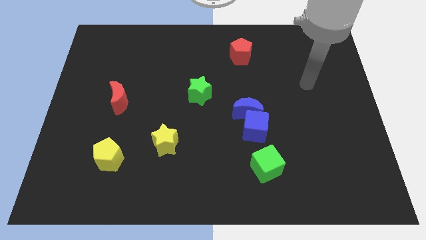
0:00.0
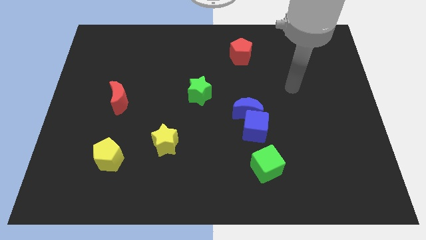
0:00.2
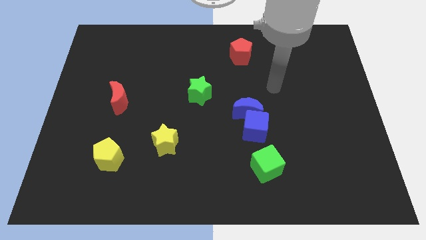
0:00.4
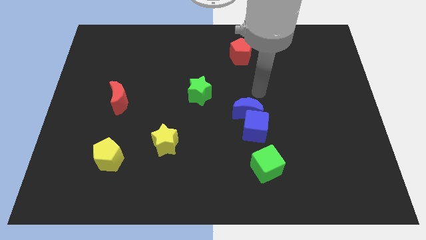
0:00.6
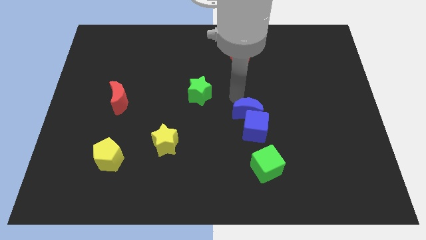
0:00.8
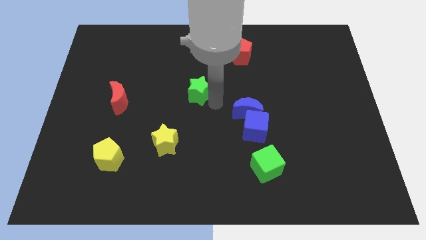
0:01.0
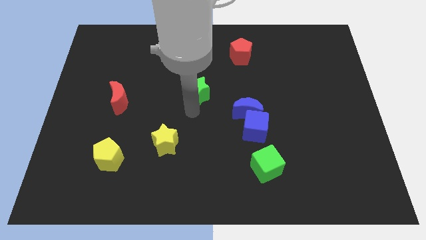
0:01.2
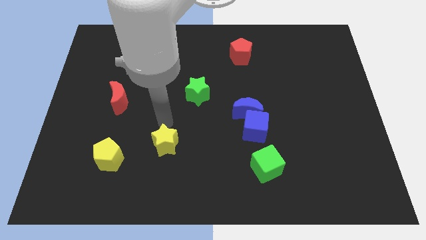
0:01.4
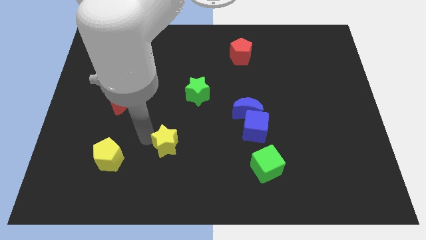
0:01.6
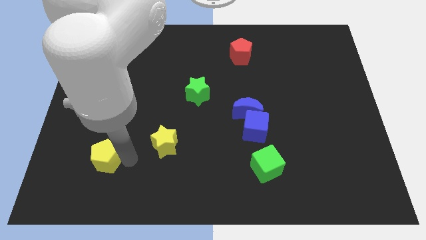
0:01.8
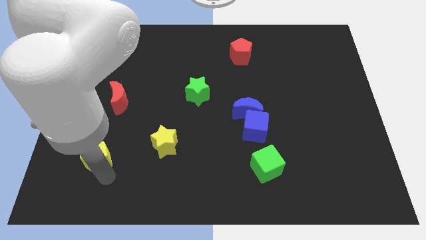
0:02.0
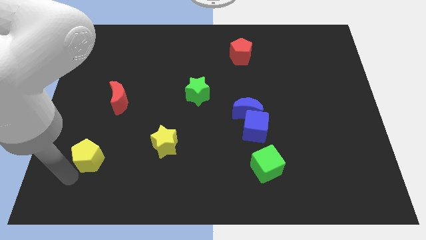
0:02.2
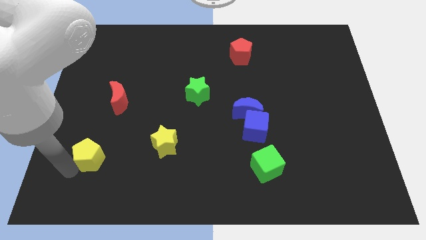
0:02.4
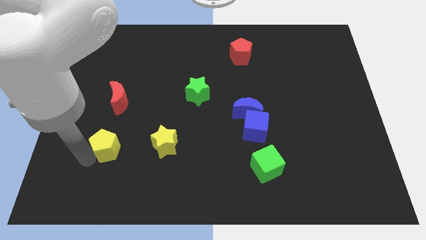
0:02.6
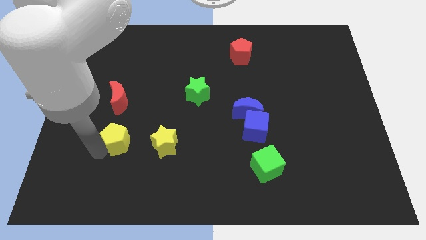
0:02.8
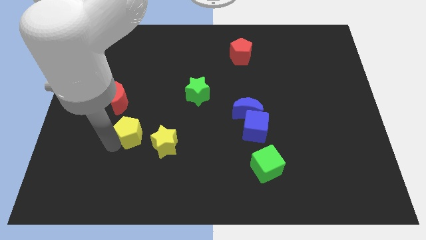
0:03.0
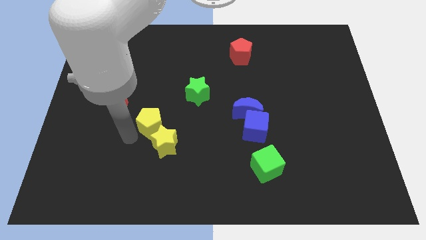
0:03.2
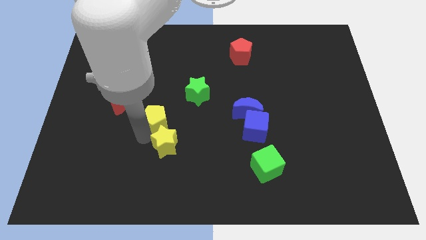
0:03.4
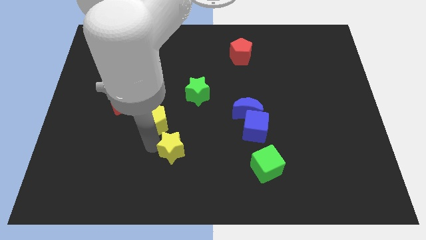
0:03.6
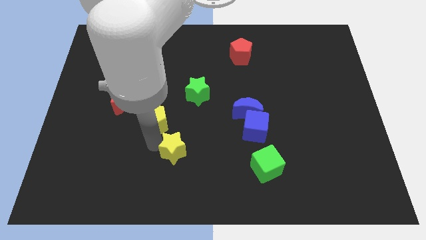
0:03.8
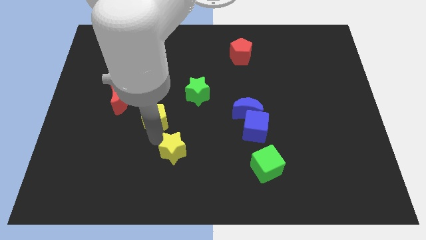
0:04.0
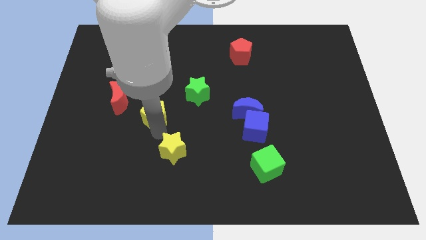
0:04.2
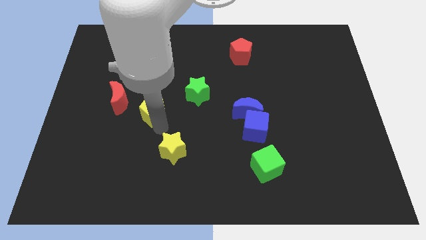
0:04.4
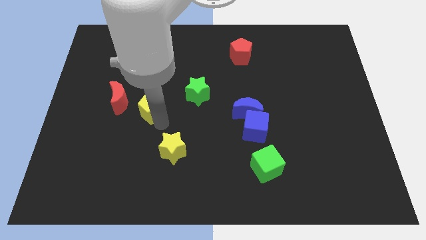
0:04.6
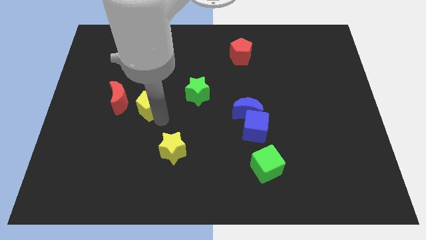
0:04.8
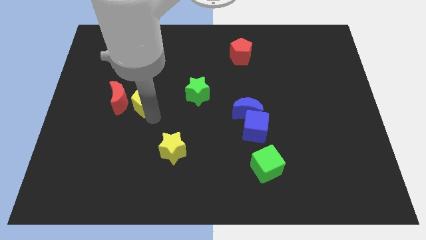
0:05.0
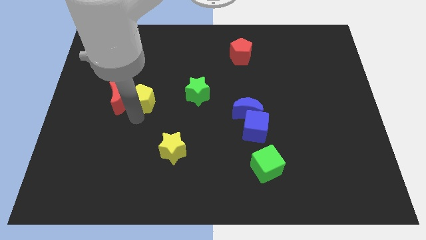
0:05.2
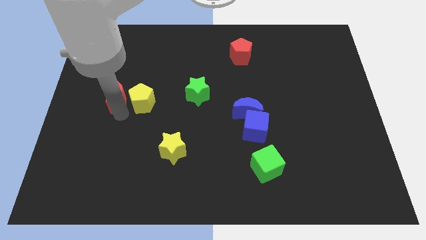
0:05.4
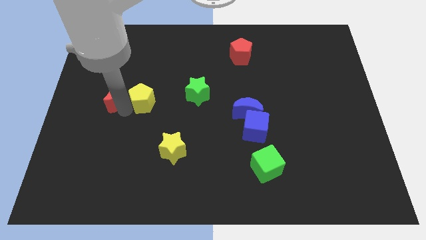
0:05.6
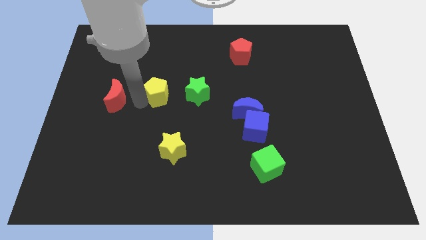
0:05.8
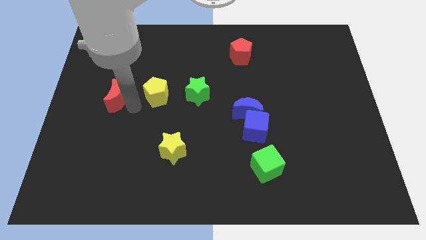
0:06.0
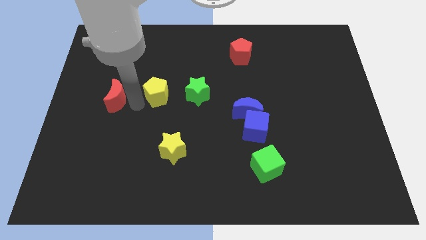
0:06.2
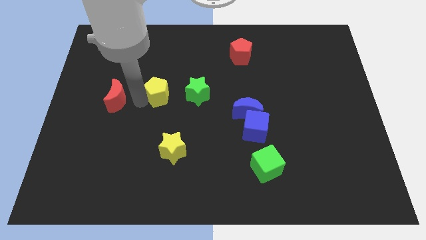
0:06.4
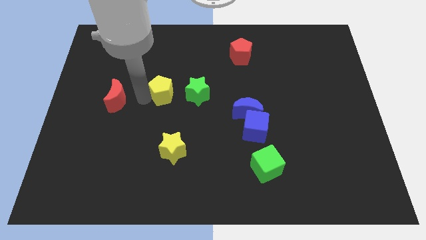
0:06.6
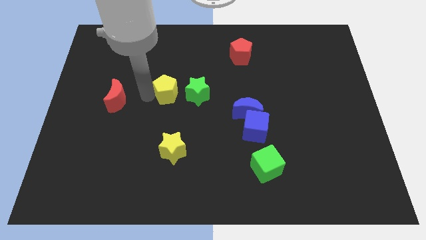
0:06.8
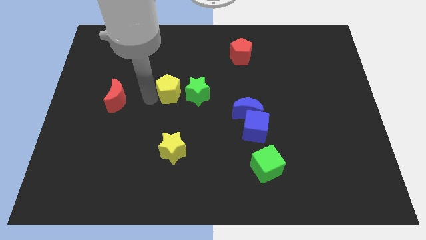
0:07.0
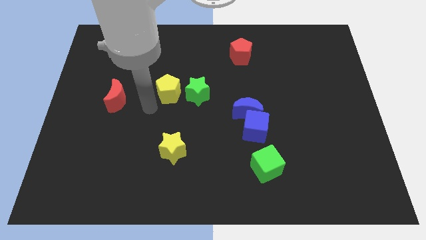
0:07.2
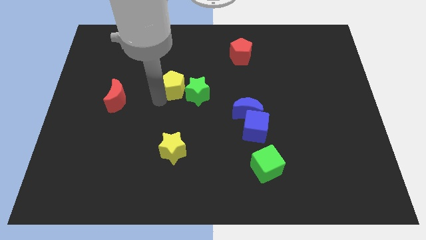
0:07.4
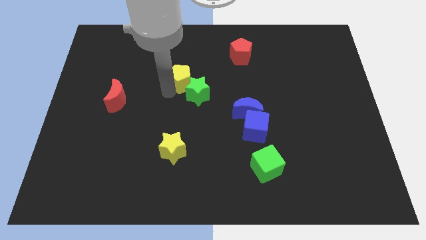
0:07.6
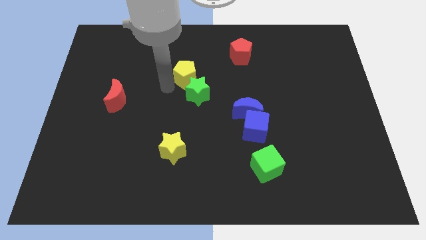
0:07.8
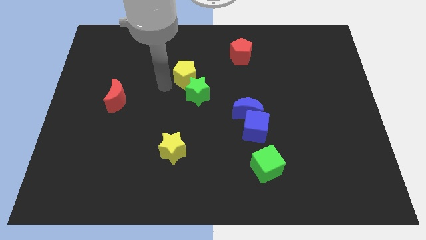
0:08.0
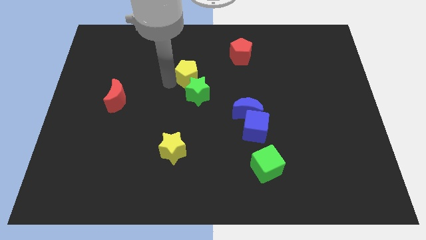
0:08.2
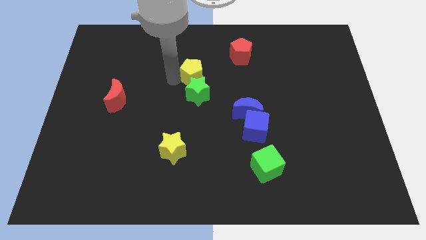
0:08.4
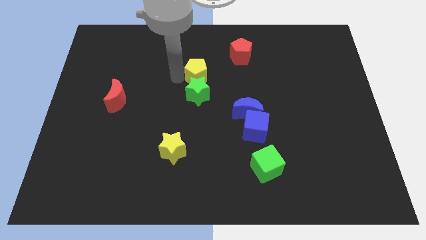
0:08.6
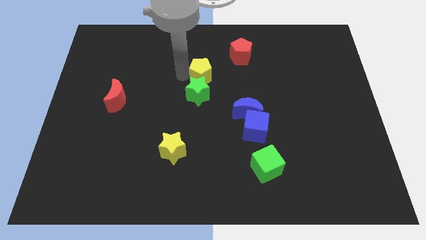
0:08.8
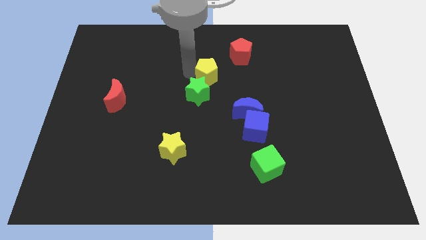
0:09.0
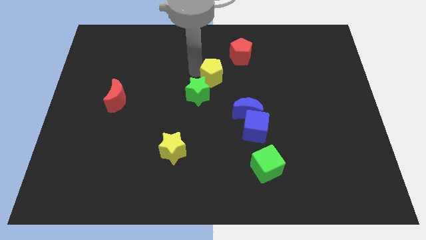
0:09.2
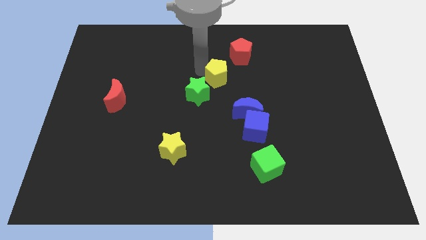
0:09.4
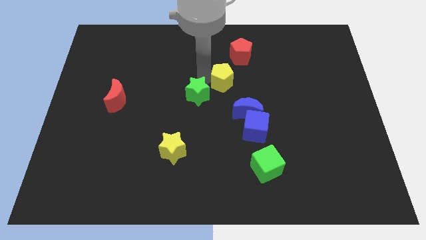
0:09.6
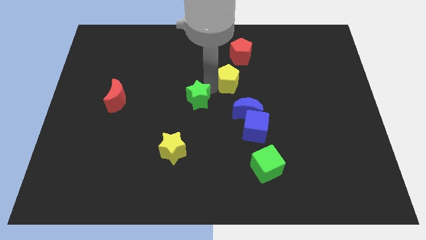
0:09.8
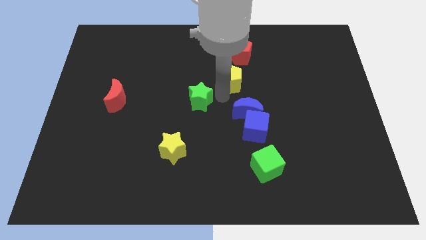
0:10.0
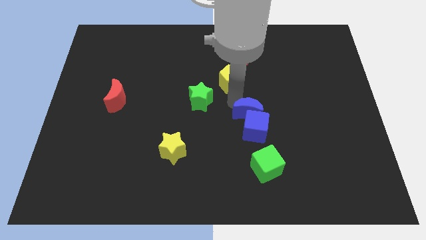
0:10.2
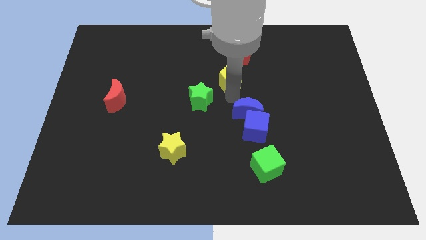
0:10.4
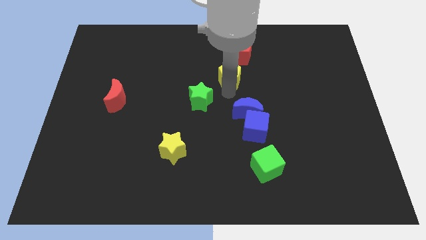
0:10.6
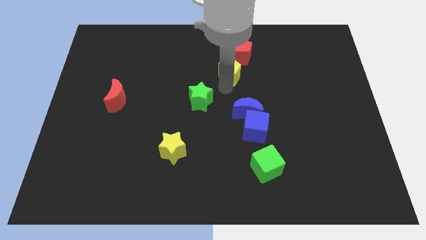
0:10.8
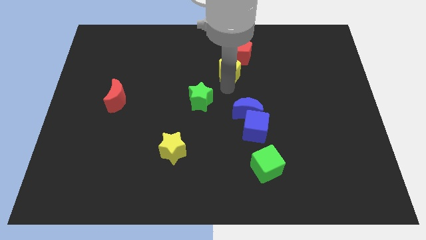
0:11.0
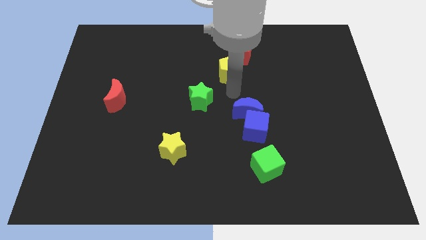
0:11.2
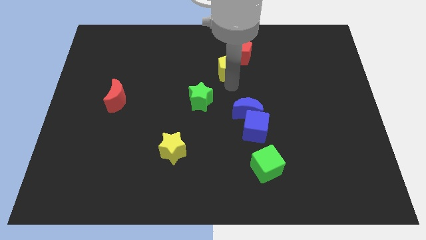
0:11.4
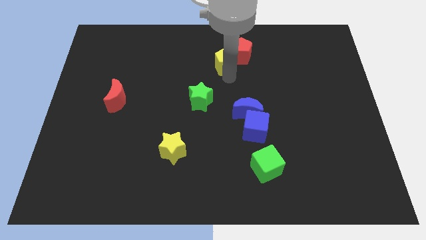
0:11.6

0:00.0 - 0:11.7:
move the yellow pentagon close to the red pentagon

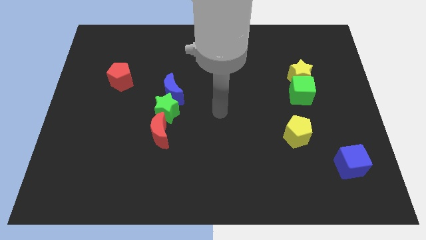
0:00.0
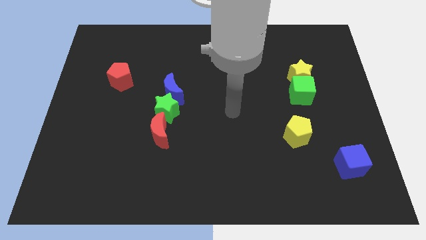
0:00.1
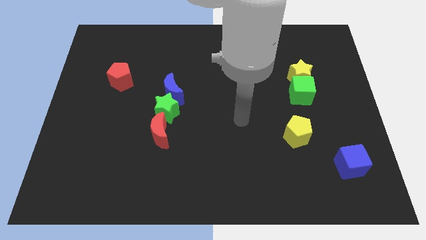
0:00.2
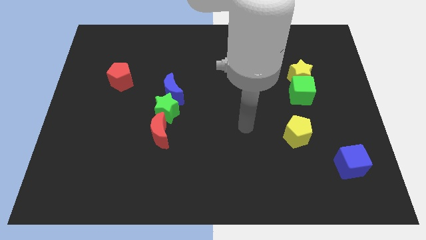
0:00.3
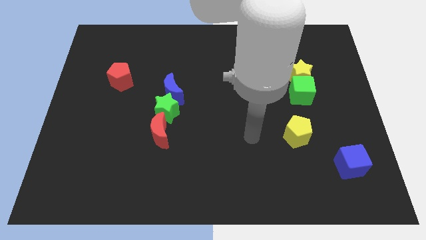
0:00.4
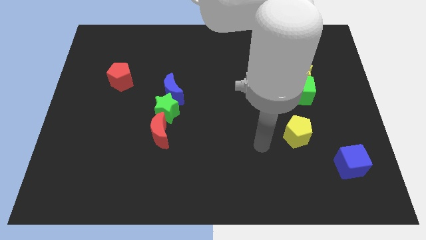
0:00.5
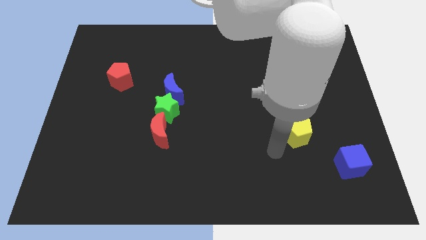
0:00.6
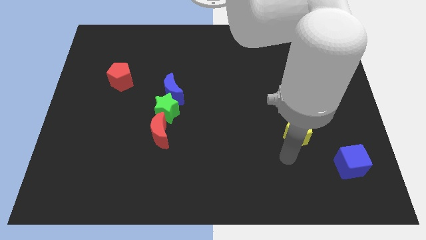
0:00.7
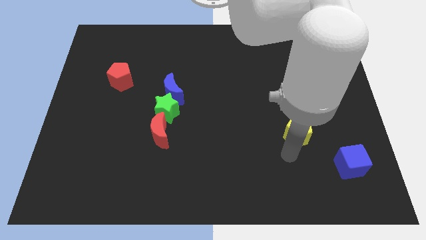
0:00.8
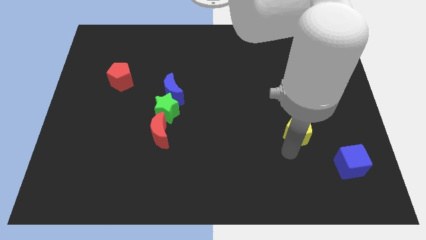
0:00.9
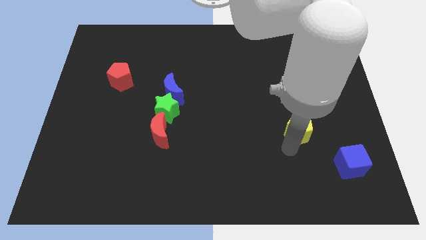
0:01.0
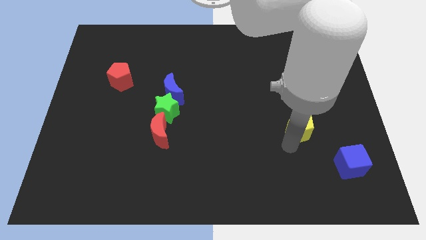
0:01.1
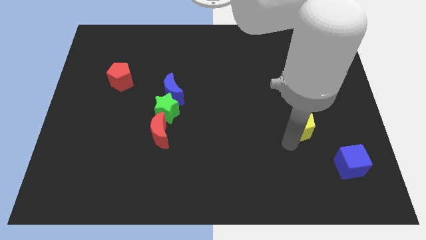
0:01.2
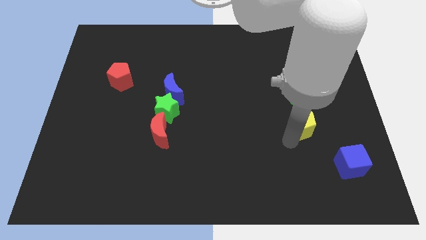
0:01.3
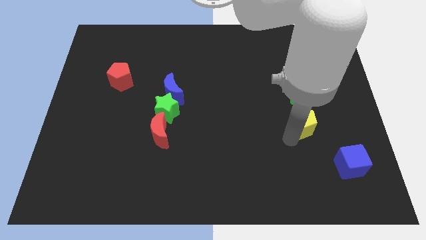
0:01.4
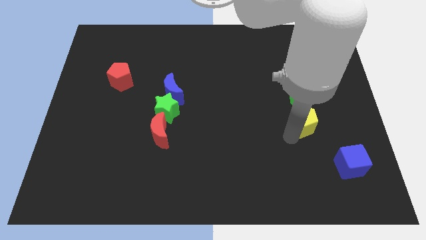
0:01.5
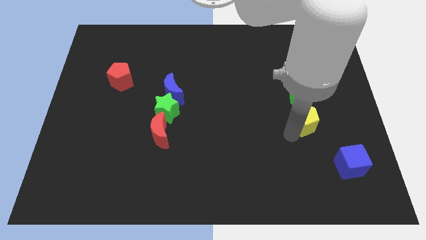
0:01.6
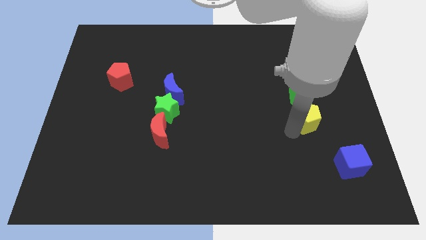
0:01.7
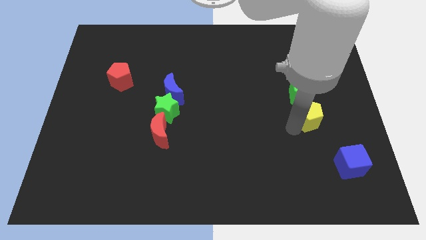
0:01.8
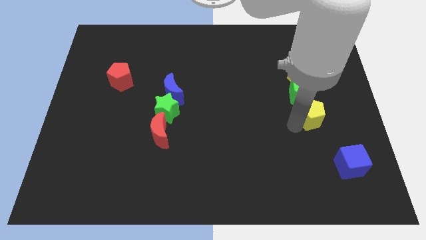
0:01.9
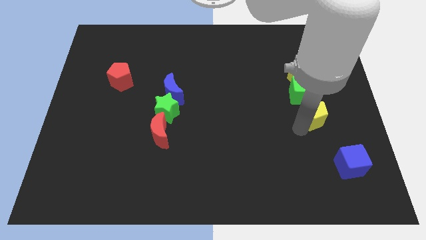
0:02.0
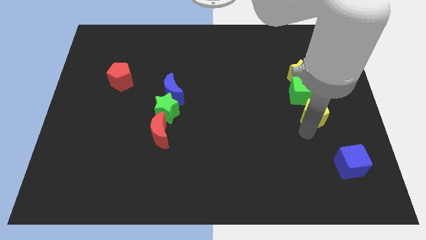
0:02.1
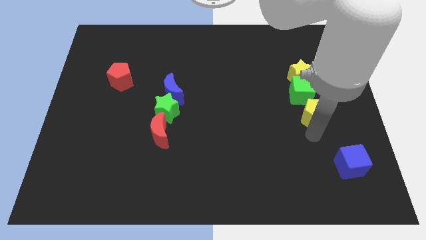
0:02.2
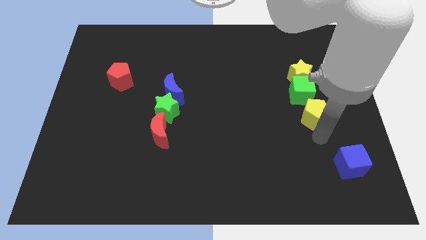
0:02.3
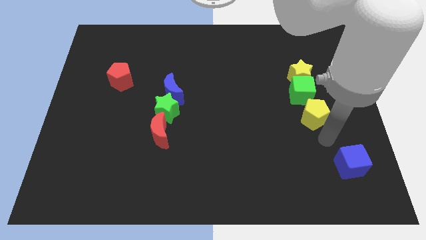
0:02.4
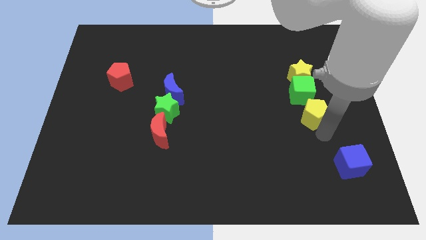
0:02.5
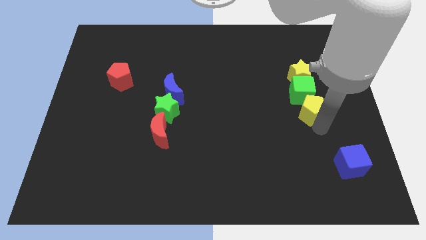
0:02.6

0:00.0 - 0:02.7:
move the yellow pentagon next to the green cube
